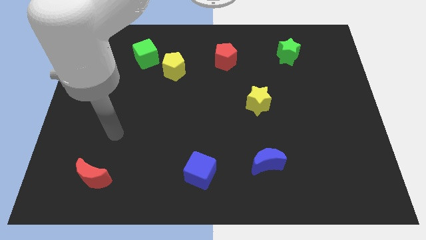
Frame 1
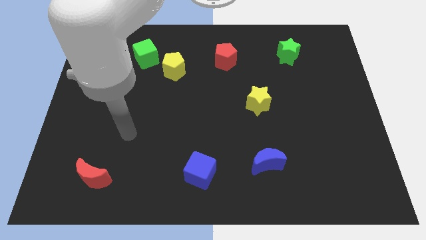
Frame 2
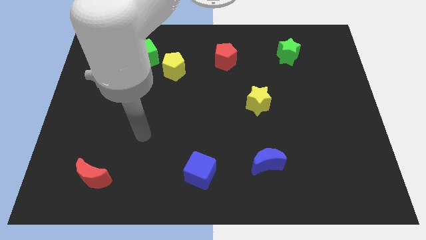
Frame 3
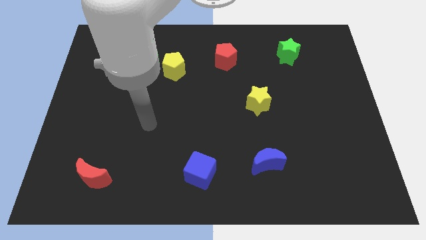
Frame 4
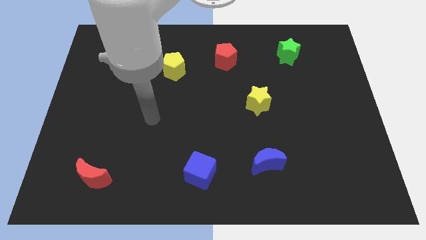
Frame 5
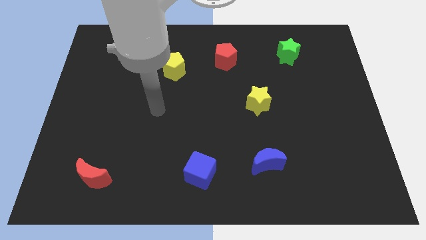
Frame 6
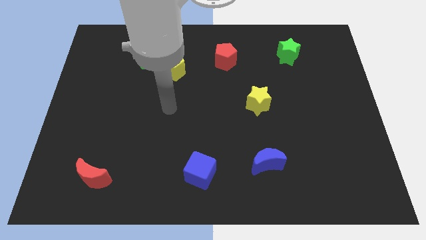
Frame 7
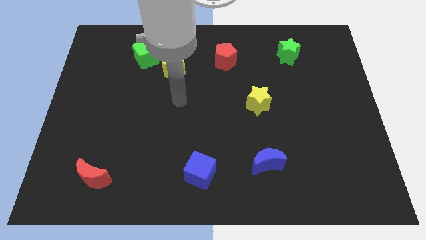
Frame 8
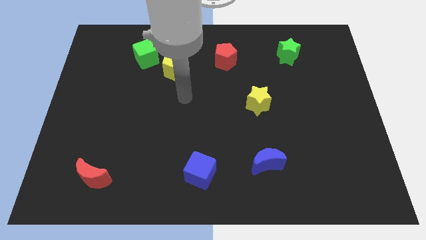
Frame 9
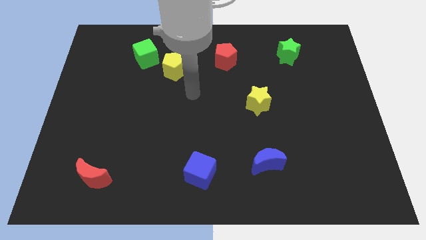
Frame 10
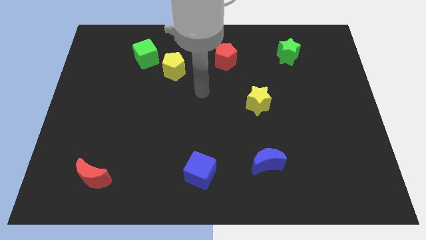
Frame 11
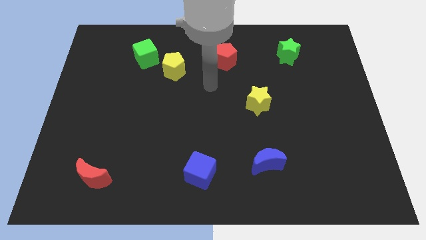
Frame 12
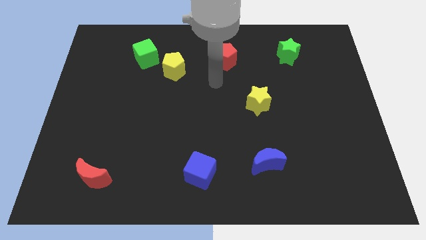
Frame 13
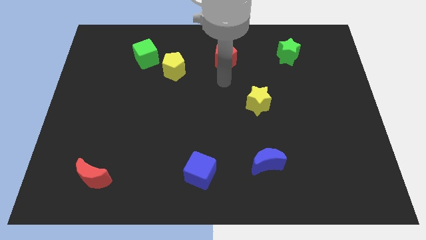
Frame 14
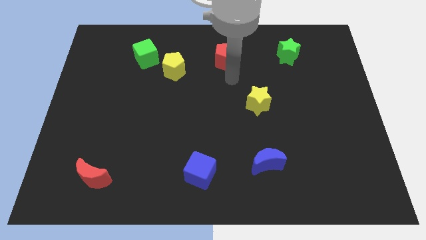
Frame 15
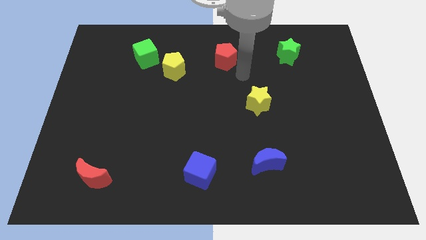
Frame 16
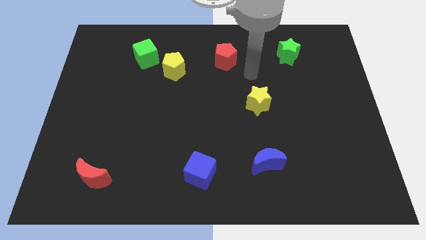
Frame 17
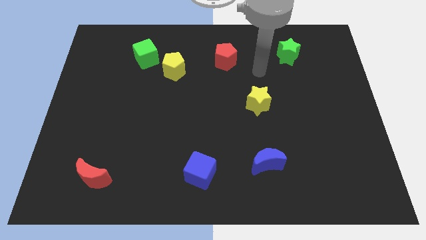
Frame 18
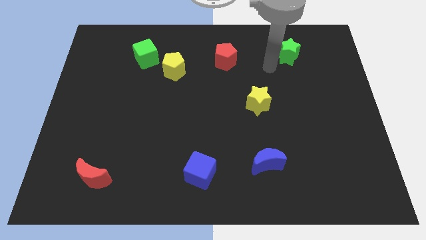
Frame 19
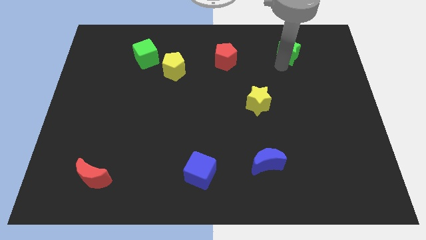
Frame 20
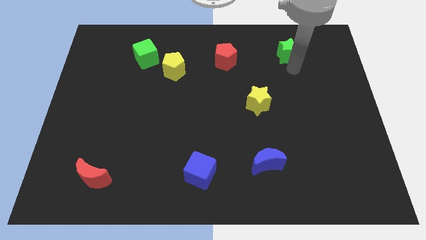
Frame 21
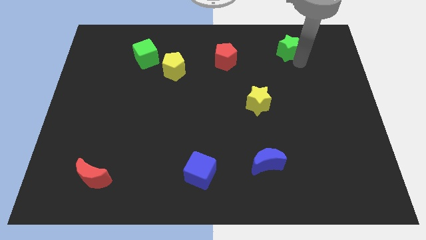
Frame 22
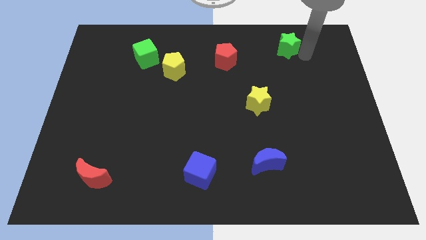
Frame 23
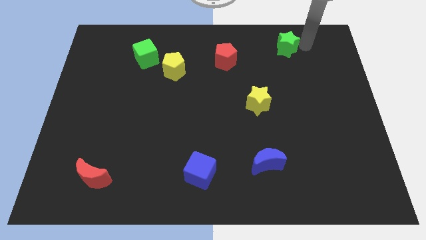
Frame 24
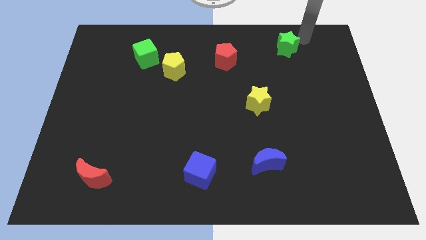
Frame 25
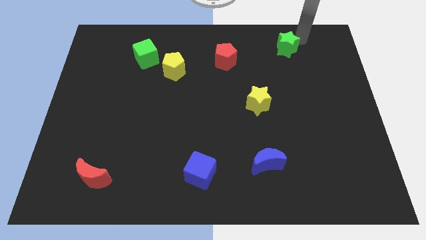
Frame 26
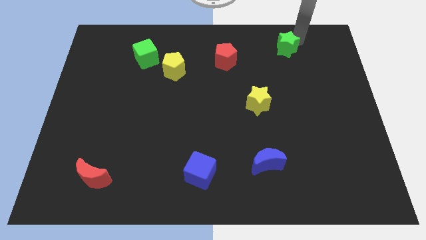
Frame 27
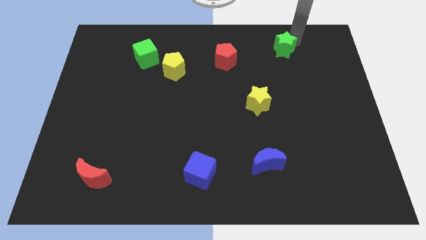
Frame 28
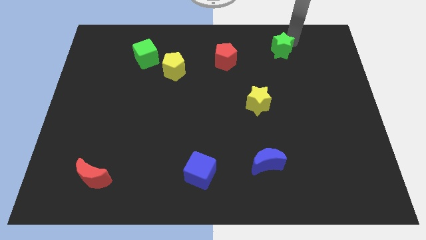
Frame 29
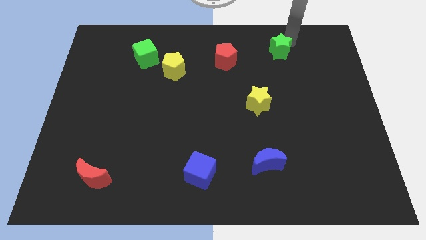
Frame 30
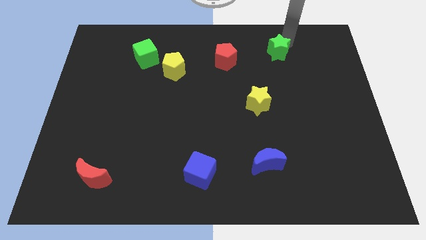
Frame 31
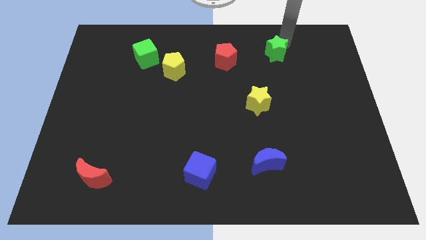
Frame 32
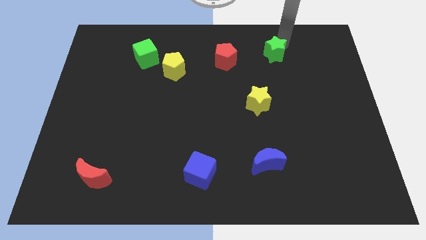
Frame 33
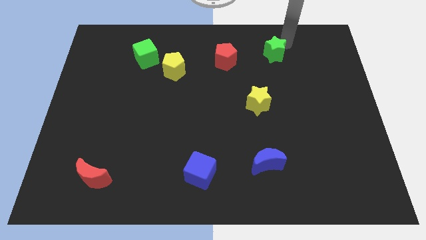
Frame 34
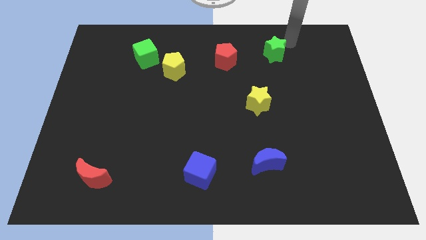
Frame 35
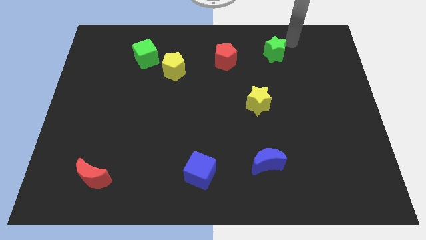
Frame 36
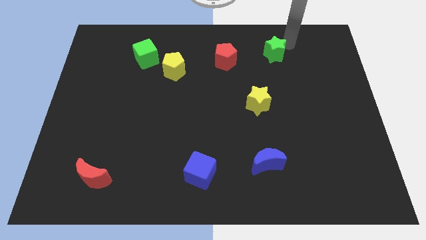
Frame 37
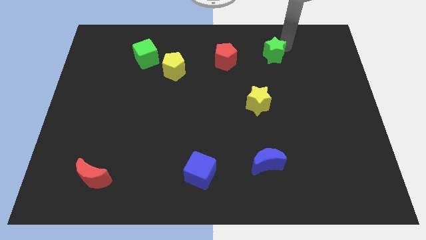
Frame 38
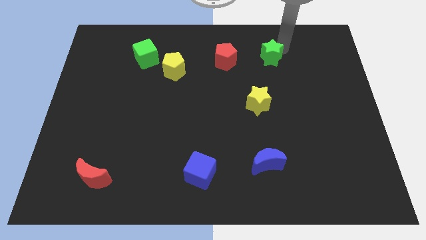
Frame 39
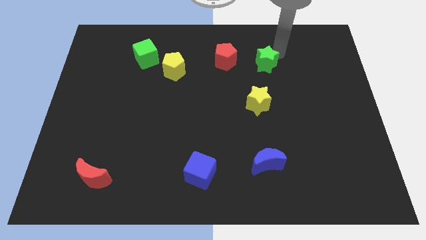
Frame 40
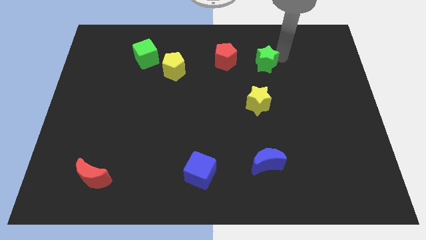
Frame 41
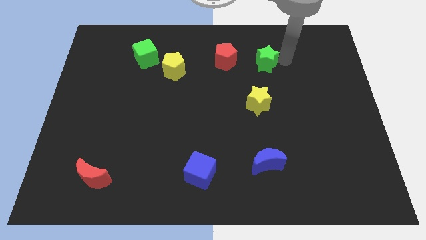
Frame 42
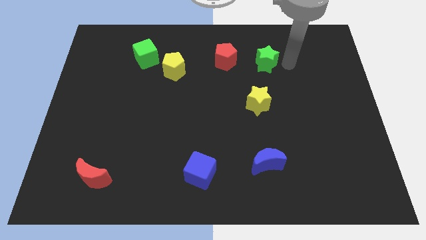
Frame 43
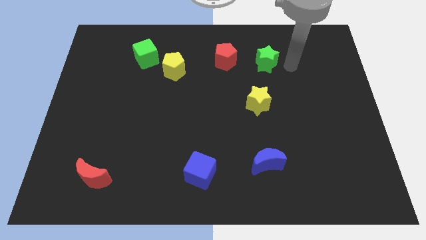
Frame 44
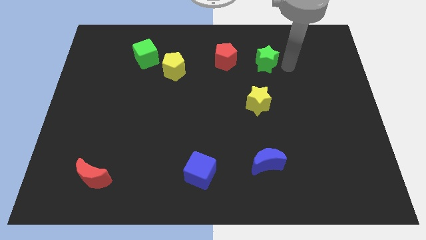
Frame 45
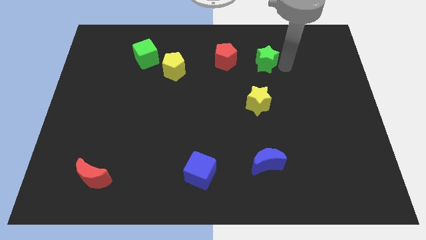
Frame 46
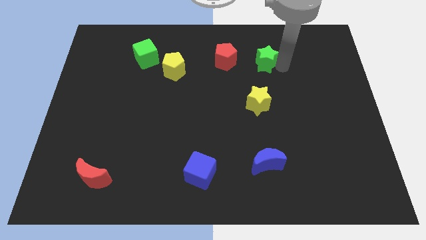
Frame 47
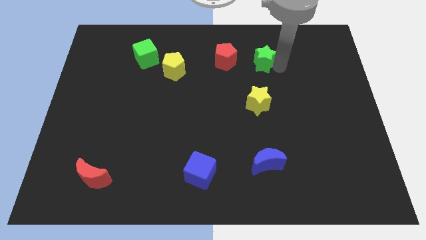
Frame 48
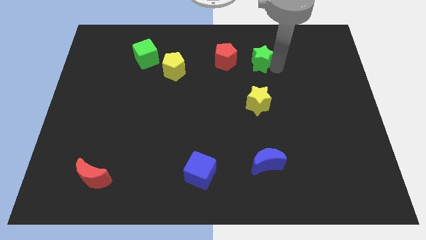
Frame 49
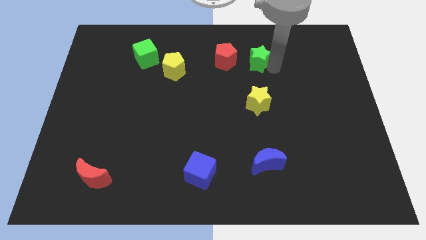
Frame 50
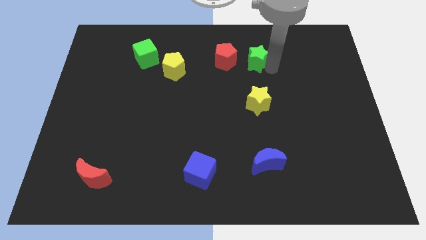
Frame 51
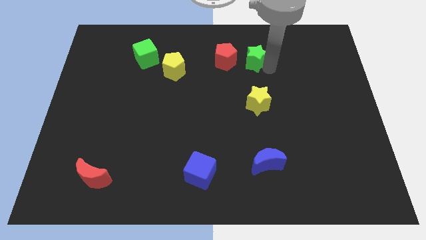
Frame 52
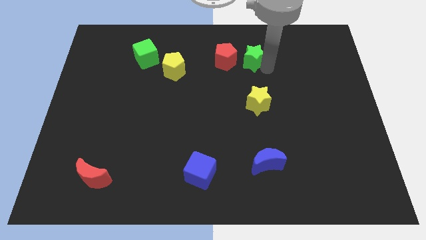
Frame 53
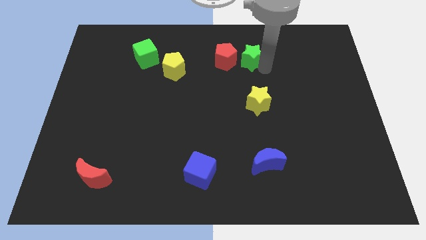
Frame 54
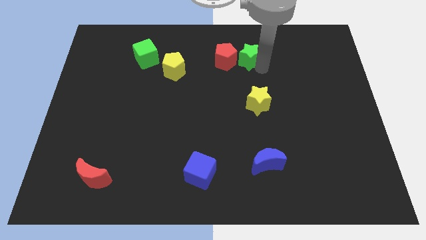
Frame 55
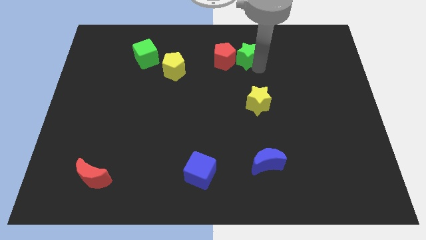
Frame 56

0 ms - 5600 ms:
push the green star next to the red pentagon
